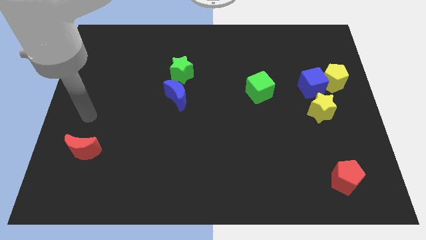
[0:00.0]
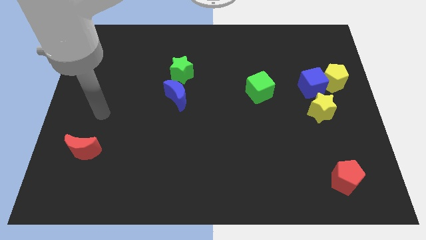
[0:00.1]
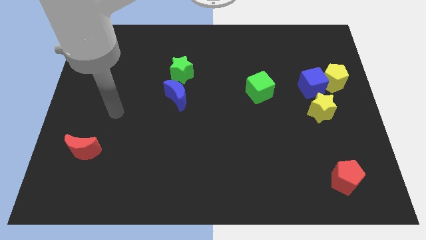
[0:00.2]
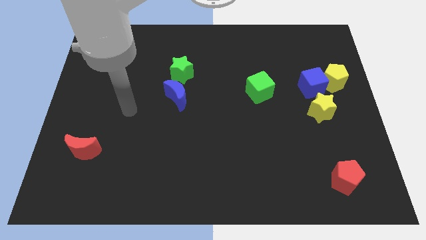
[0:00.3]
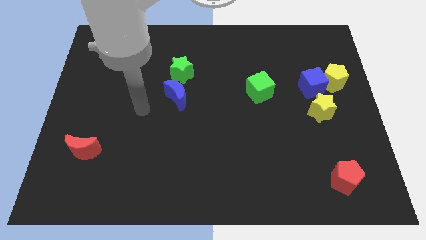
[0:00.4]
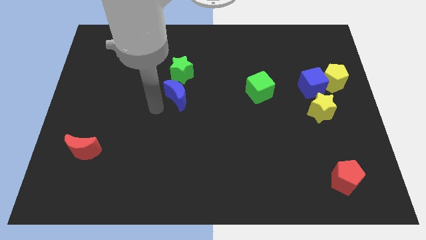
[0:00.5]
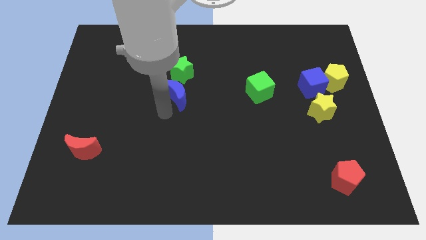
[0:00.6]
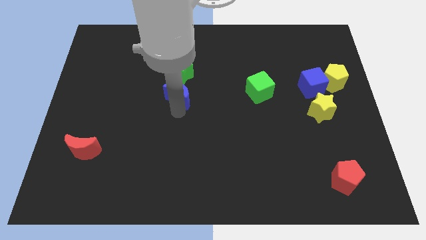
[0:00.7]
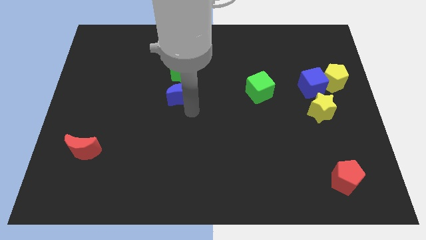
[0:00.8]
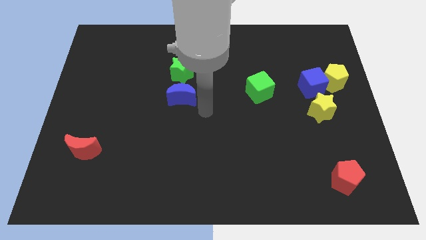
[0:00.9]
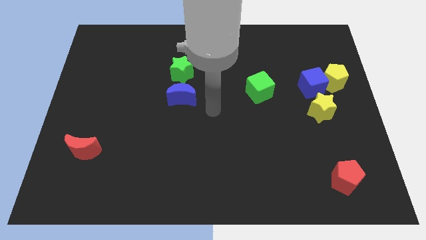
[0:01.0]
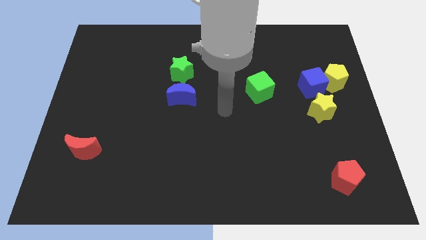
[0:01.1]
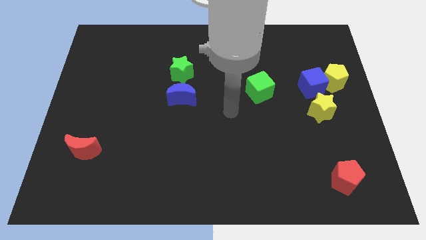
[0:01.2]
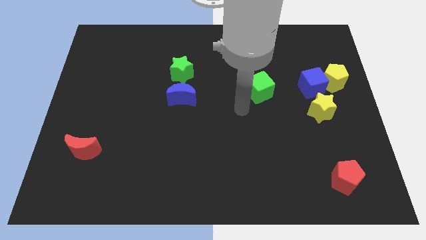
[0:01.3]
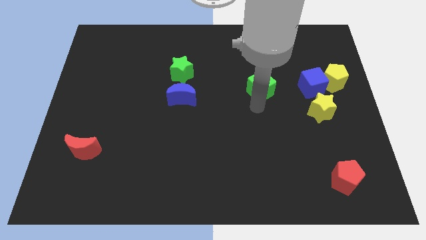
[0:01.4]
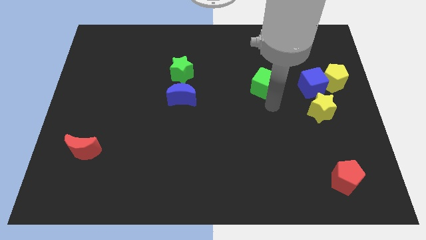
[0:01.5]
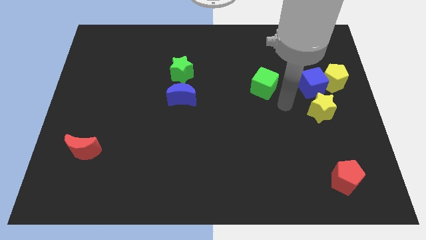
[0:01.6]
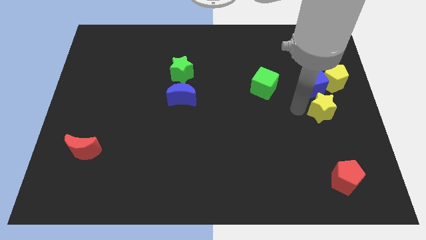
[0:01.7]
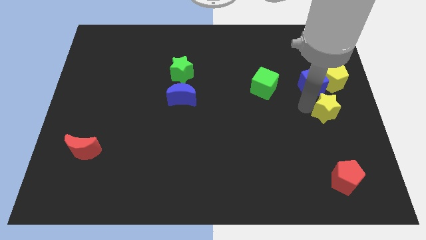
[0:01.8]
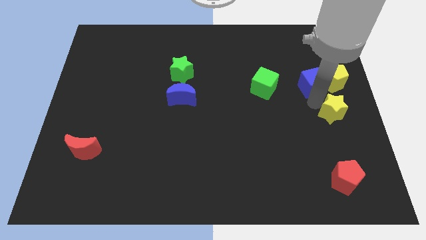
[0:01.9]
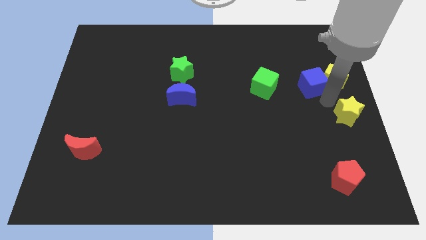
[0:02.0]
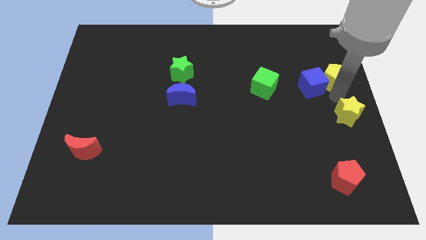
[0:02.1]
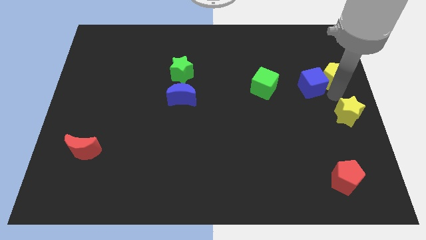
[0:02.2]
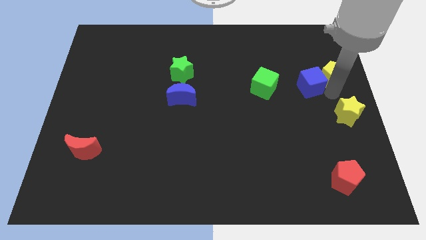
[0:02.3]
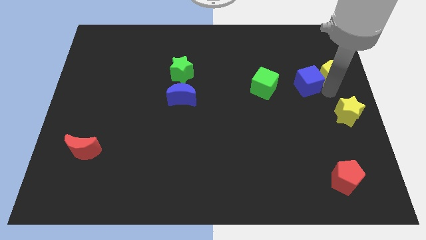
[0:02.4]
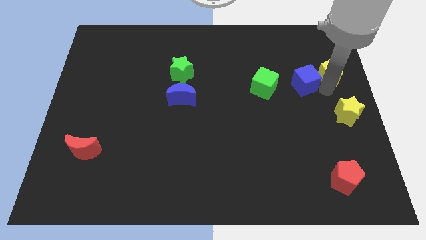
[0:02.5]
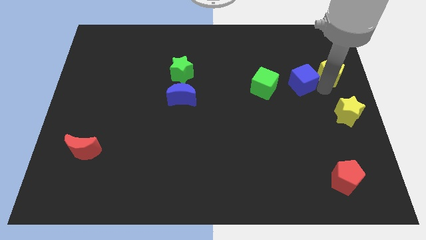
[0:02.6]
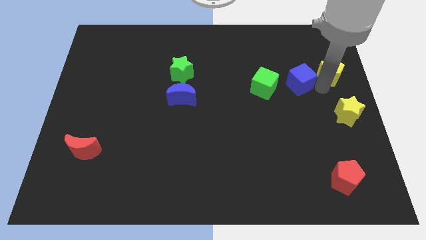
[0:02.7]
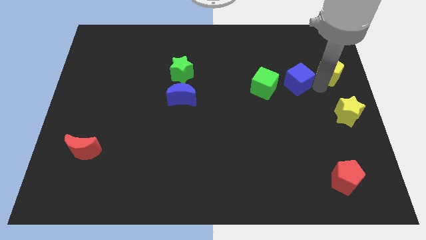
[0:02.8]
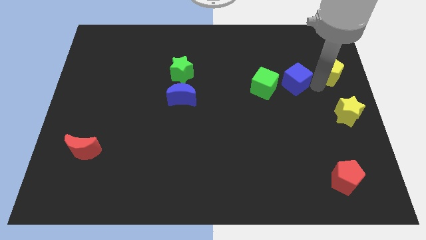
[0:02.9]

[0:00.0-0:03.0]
separate the blue cube from the yellow pentagon and yellow star

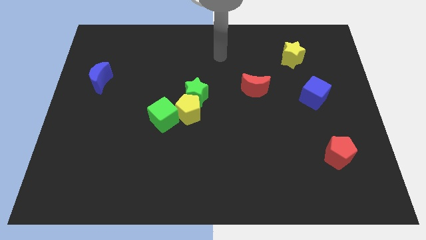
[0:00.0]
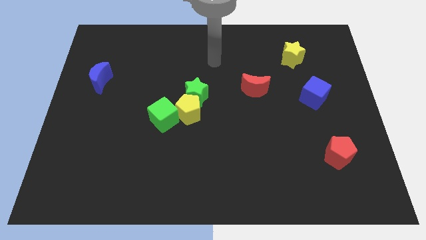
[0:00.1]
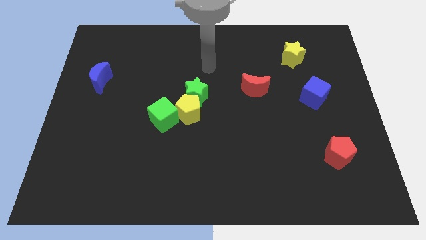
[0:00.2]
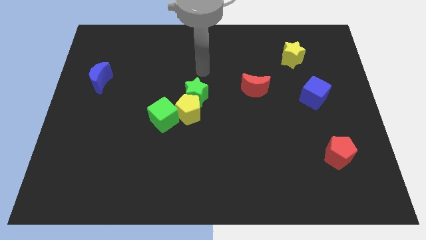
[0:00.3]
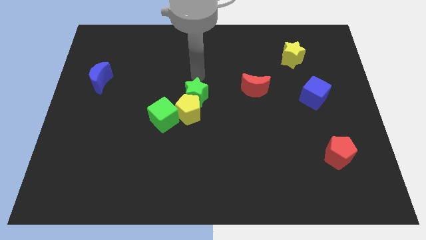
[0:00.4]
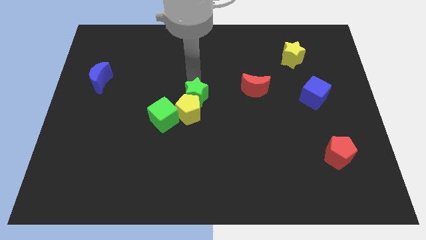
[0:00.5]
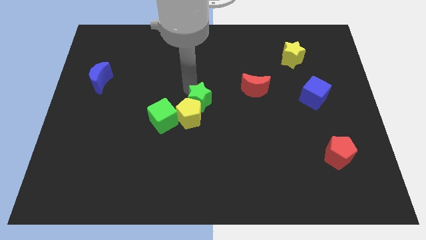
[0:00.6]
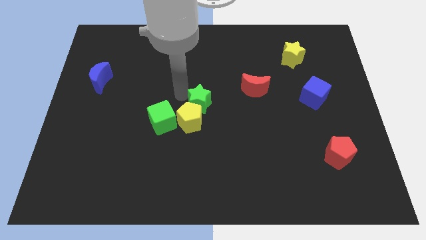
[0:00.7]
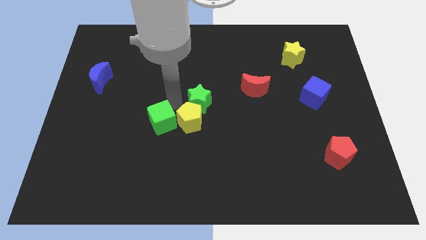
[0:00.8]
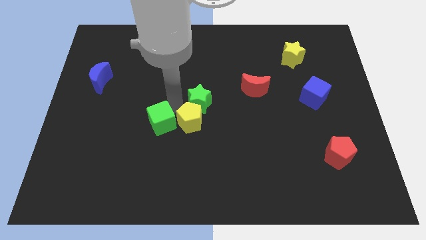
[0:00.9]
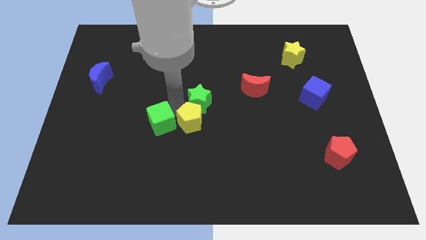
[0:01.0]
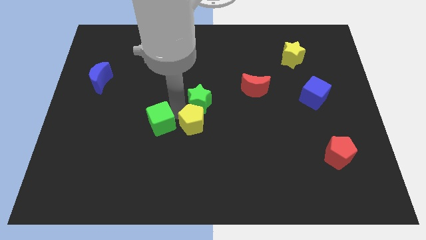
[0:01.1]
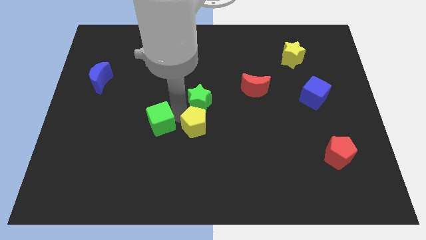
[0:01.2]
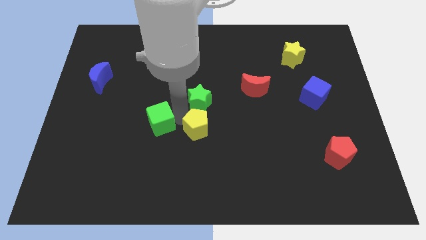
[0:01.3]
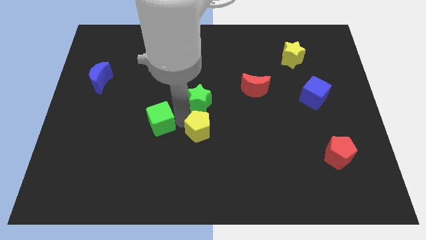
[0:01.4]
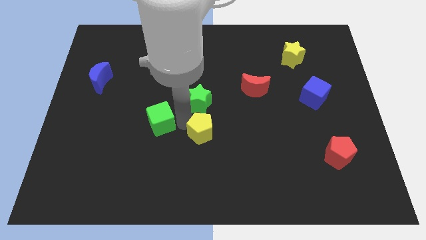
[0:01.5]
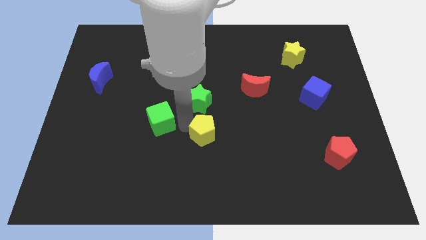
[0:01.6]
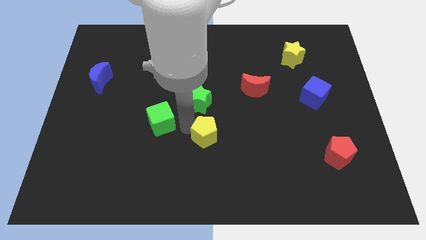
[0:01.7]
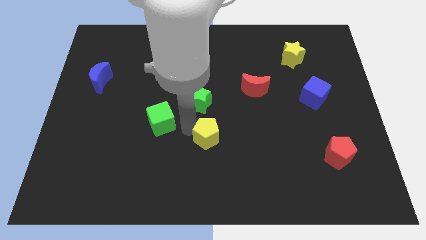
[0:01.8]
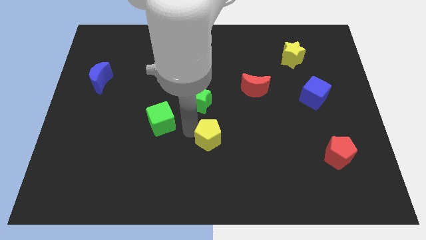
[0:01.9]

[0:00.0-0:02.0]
pull the yellow pentagon apart from the green star and green cube

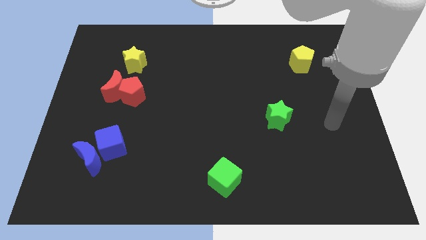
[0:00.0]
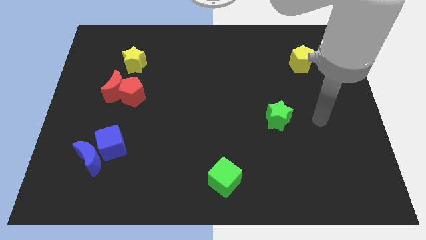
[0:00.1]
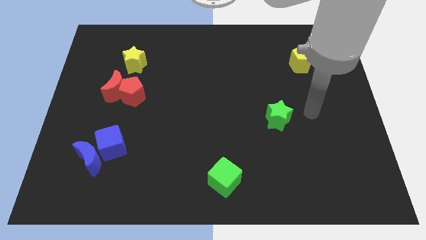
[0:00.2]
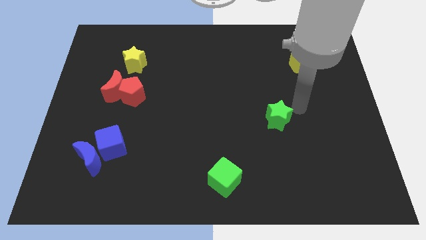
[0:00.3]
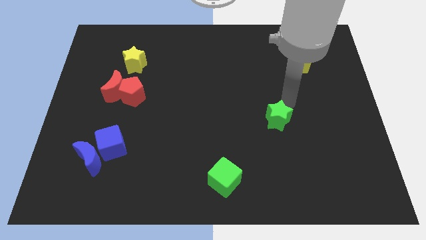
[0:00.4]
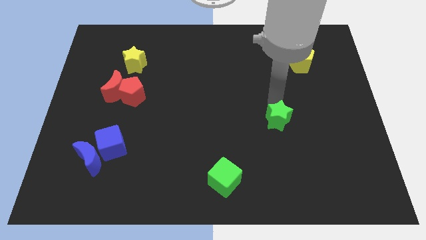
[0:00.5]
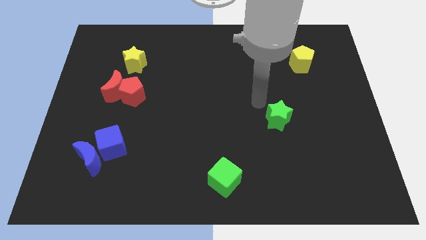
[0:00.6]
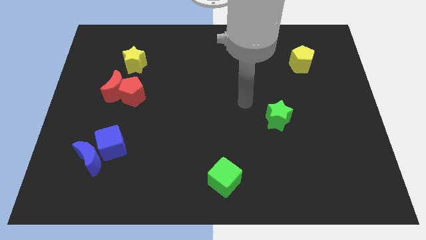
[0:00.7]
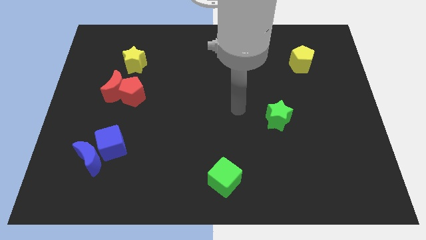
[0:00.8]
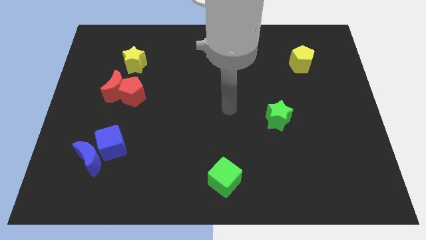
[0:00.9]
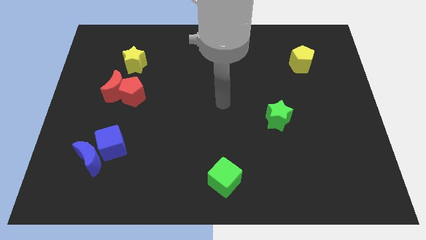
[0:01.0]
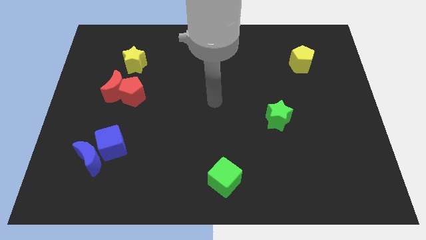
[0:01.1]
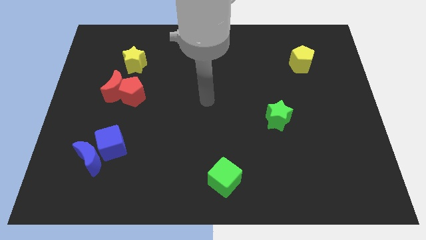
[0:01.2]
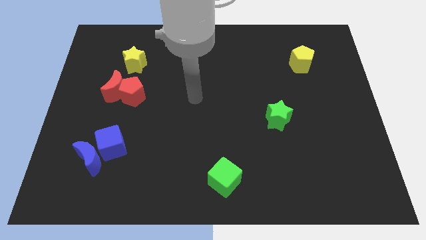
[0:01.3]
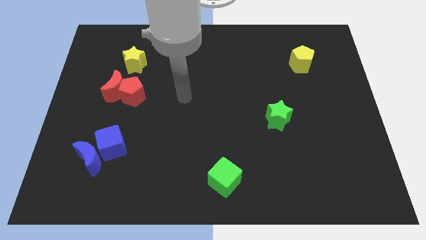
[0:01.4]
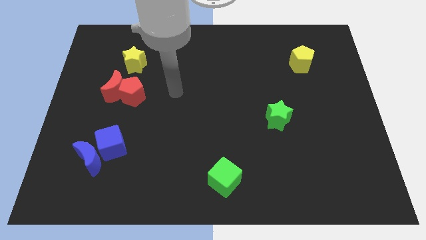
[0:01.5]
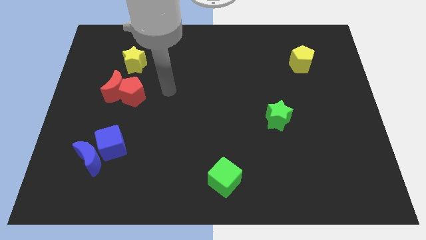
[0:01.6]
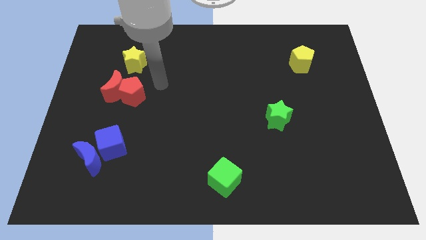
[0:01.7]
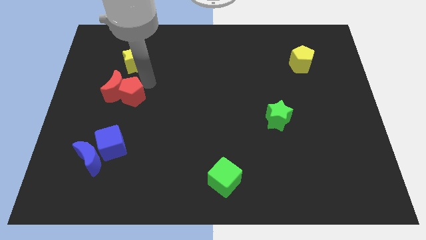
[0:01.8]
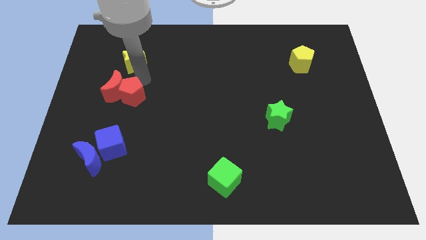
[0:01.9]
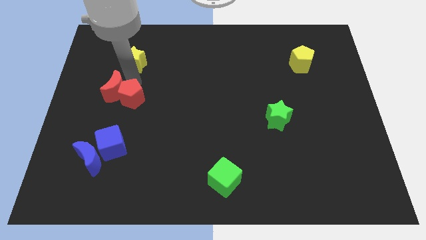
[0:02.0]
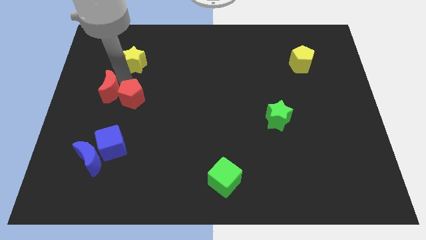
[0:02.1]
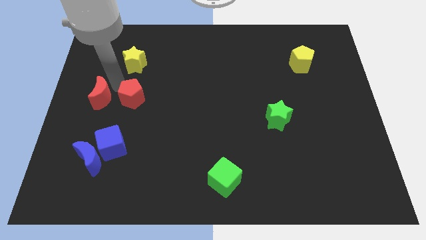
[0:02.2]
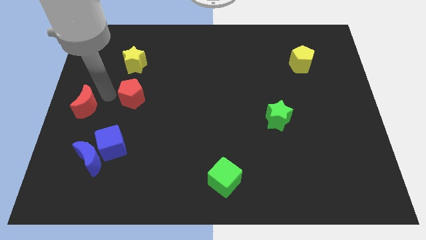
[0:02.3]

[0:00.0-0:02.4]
move the red pentagon away from the red moon

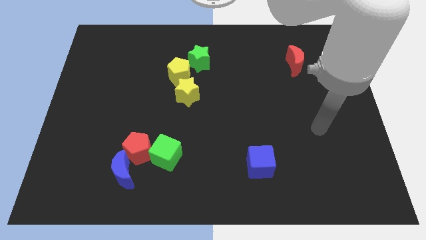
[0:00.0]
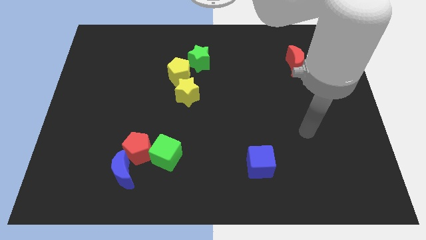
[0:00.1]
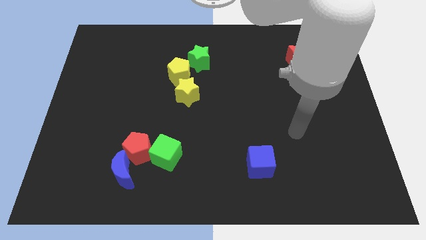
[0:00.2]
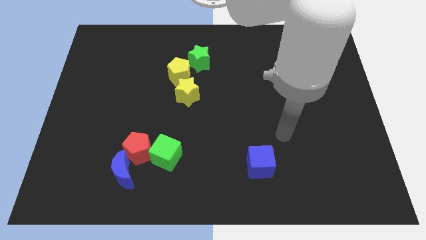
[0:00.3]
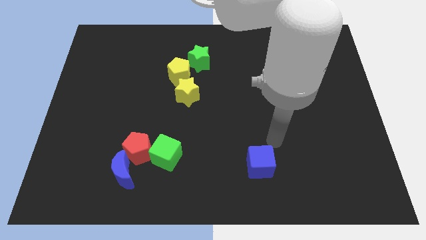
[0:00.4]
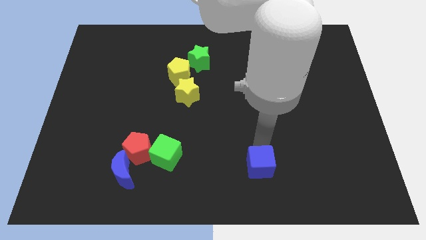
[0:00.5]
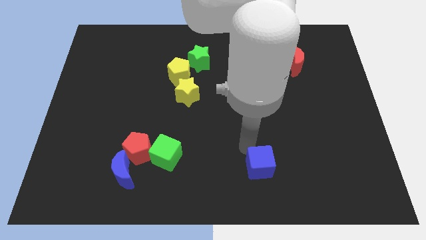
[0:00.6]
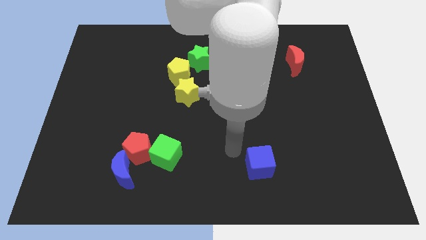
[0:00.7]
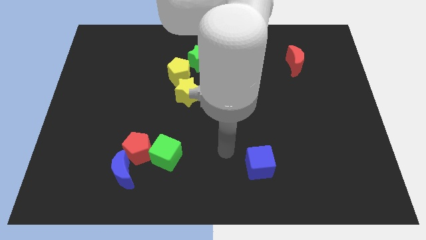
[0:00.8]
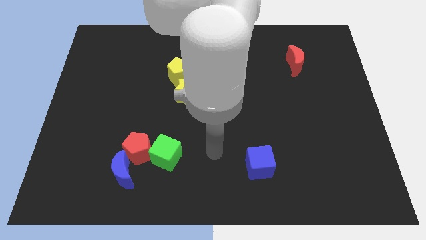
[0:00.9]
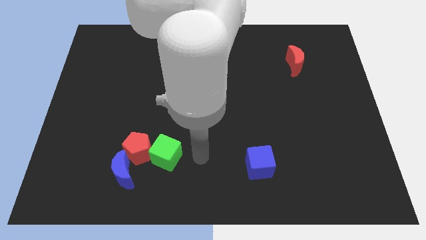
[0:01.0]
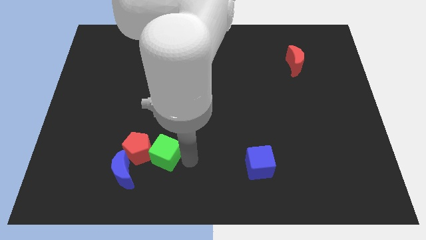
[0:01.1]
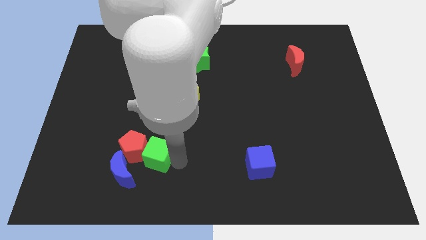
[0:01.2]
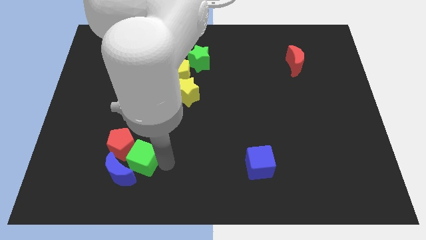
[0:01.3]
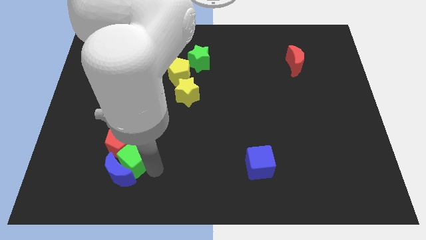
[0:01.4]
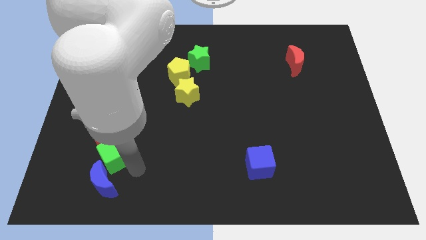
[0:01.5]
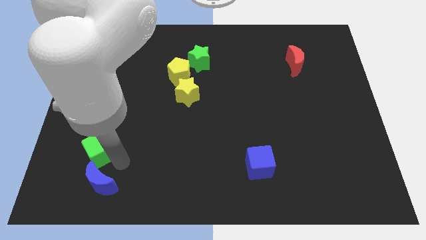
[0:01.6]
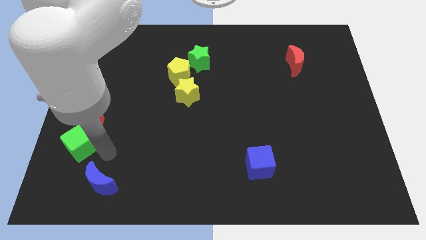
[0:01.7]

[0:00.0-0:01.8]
pull the red pentagon apart from the green cube and blue moon
